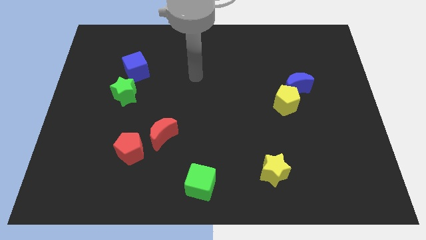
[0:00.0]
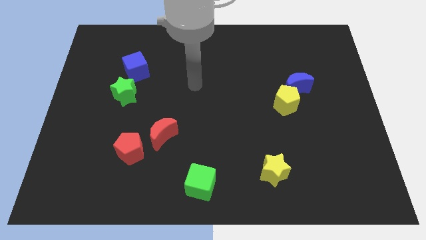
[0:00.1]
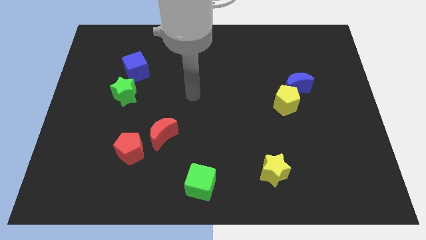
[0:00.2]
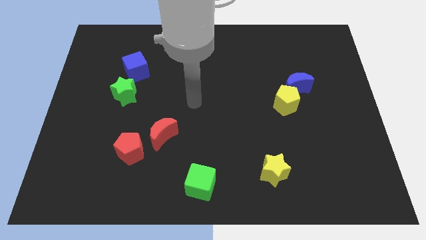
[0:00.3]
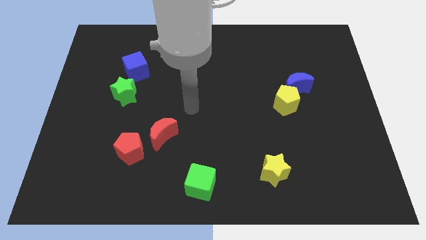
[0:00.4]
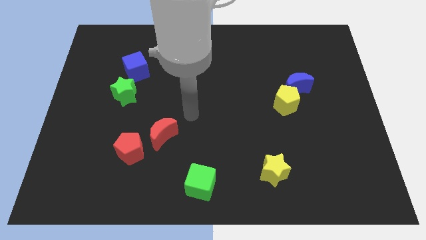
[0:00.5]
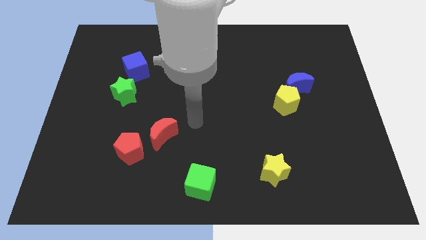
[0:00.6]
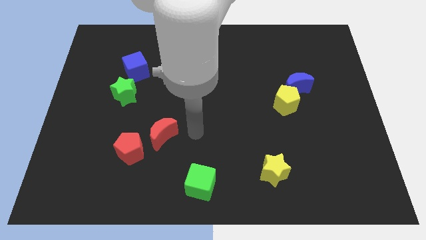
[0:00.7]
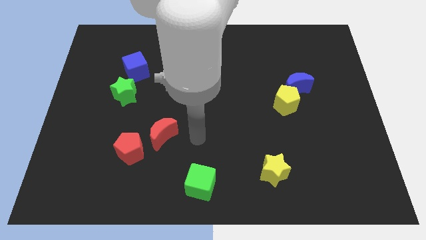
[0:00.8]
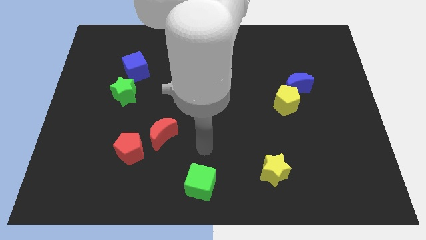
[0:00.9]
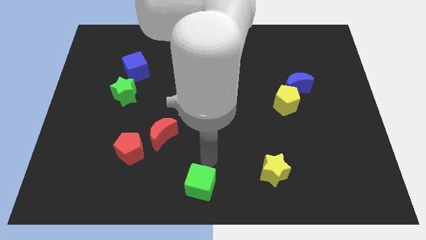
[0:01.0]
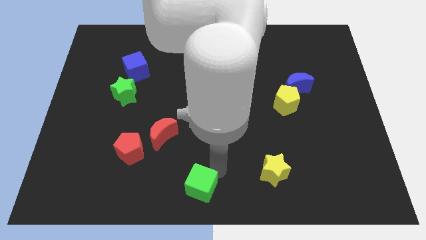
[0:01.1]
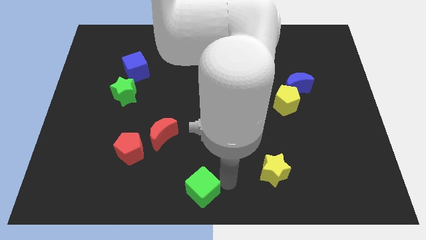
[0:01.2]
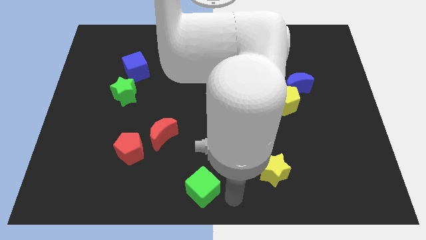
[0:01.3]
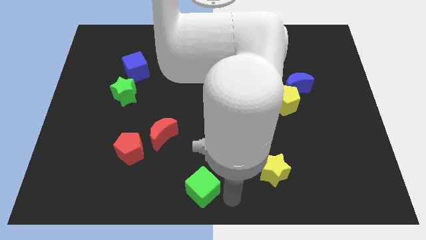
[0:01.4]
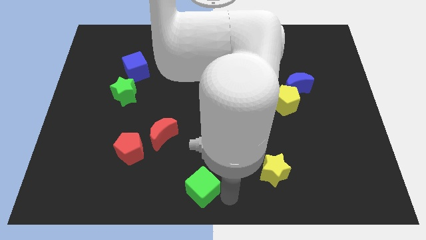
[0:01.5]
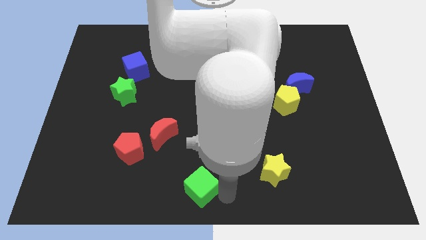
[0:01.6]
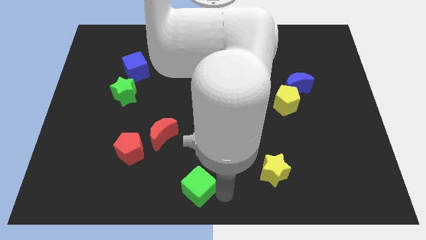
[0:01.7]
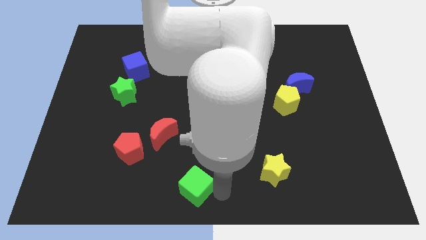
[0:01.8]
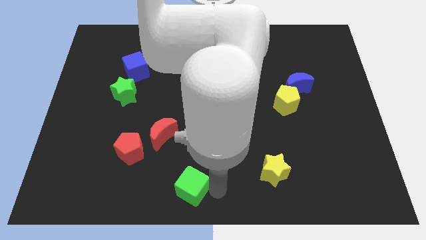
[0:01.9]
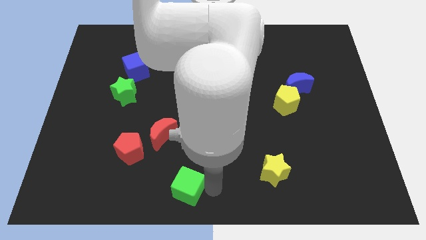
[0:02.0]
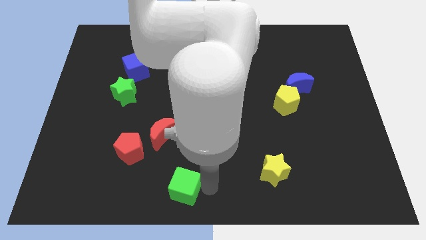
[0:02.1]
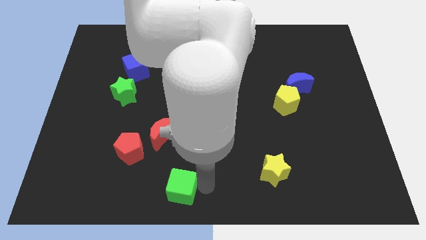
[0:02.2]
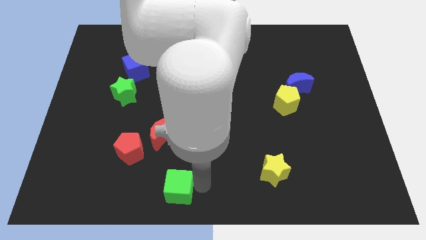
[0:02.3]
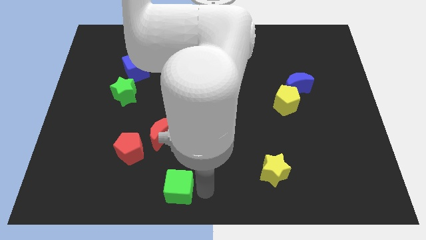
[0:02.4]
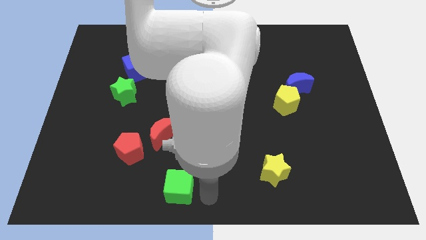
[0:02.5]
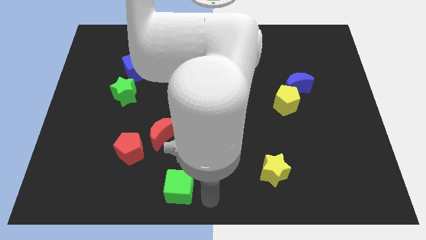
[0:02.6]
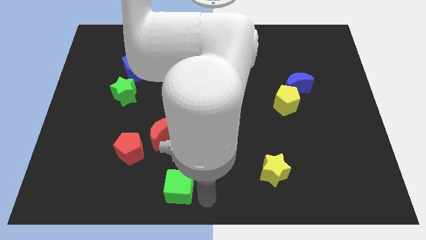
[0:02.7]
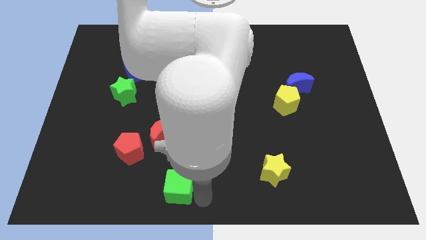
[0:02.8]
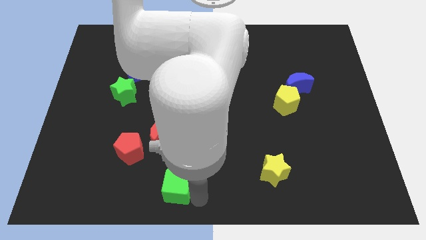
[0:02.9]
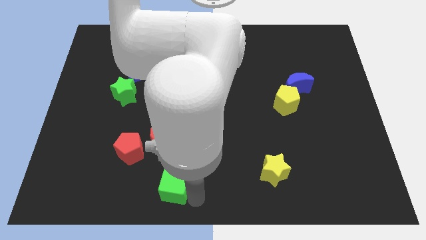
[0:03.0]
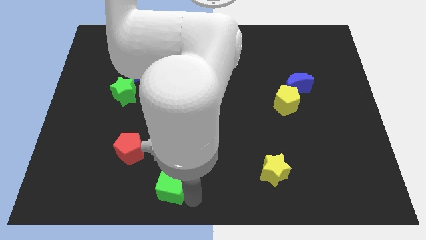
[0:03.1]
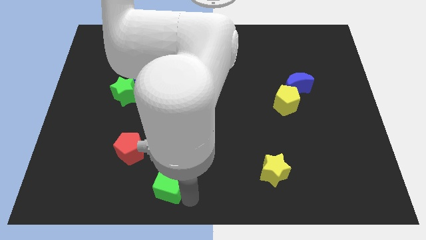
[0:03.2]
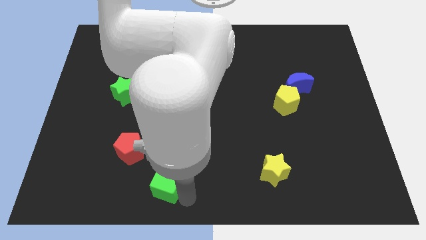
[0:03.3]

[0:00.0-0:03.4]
slide the green cube left a little

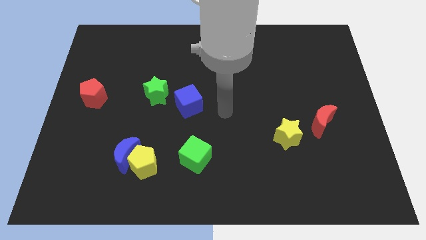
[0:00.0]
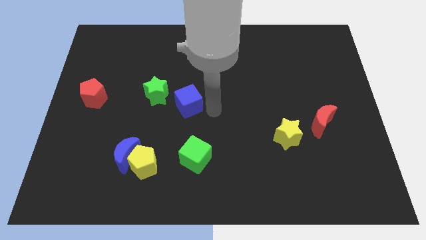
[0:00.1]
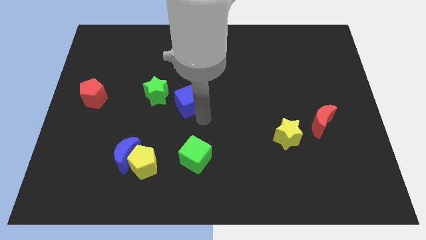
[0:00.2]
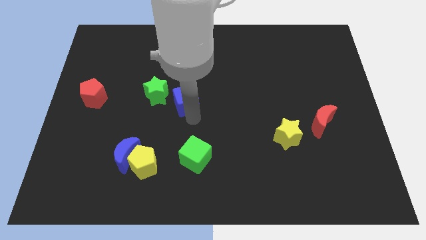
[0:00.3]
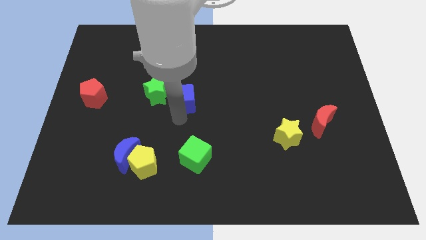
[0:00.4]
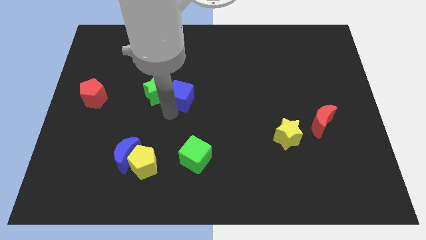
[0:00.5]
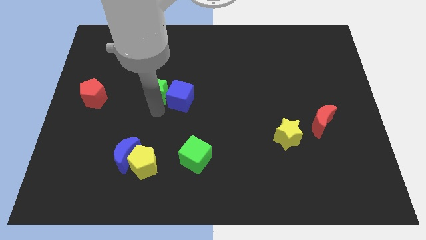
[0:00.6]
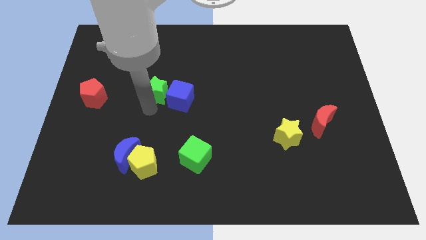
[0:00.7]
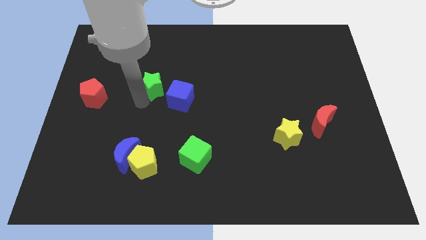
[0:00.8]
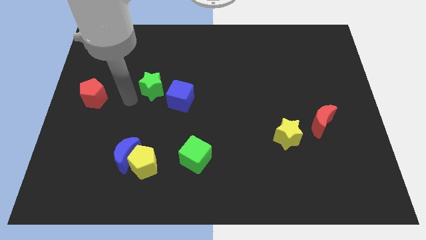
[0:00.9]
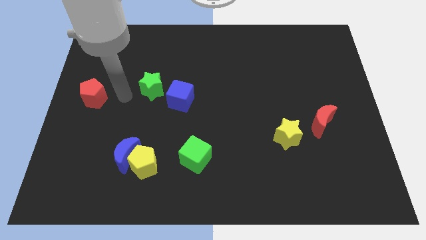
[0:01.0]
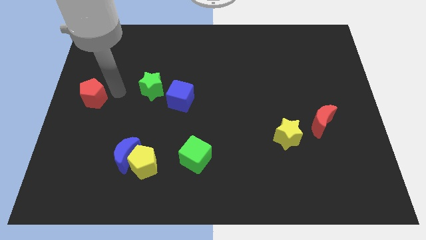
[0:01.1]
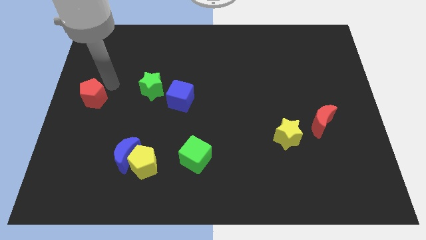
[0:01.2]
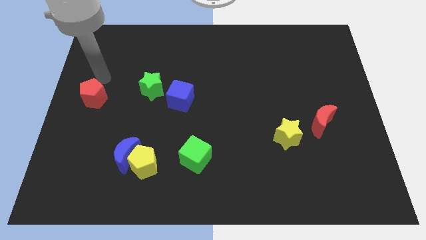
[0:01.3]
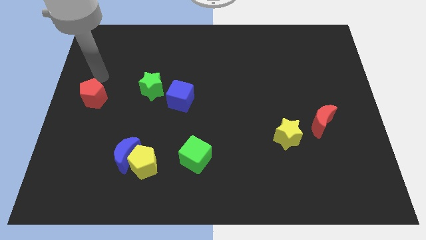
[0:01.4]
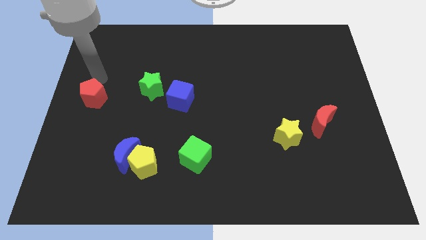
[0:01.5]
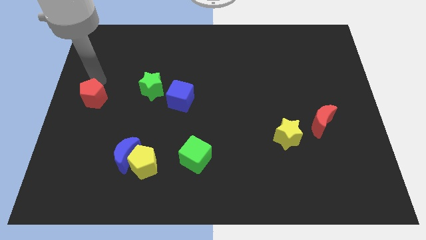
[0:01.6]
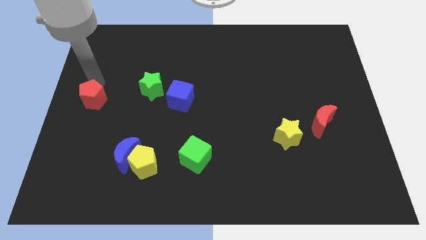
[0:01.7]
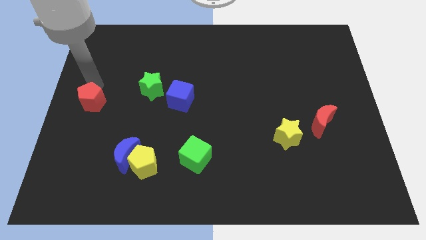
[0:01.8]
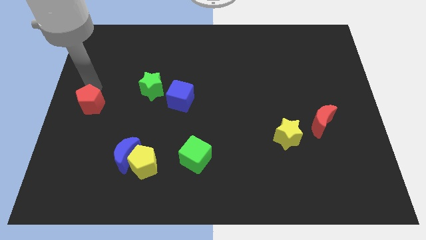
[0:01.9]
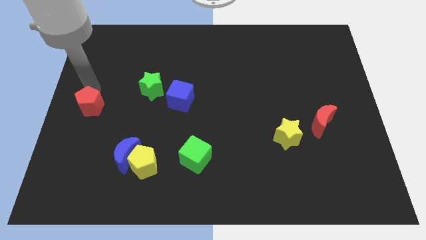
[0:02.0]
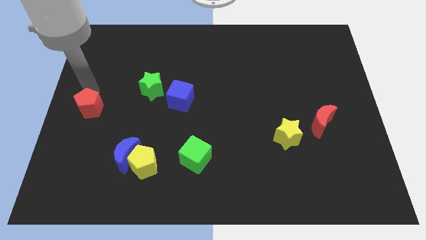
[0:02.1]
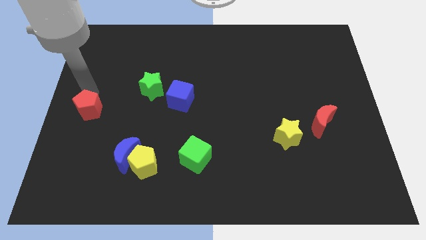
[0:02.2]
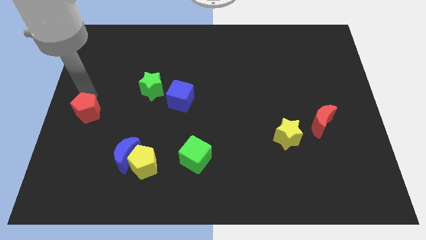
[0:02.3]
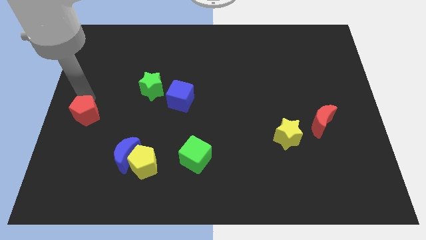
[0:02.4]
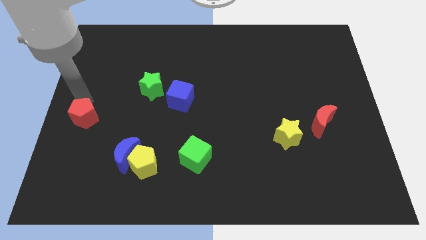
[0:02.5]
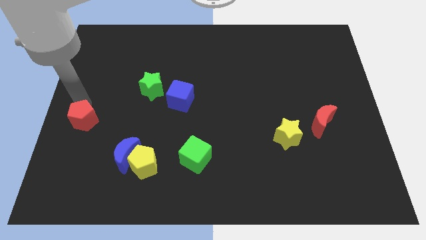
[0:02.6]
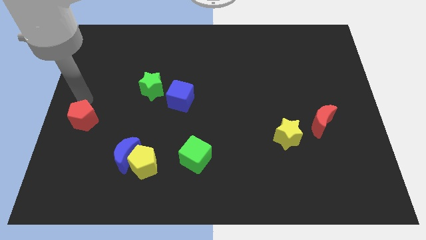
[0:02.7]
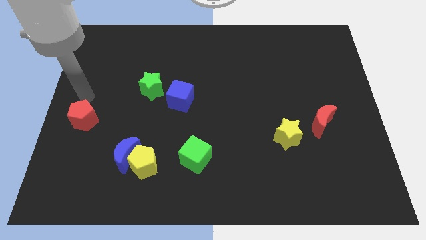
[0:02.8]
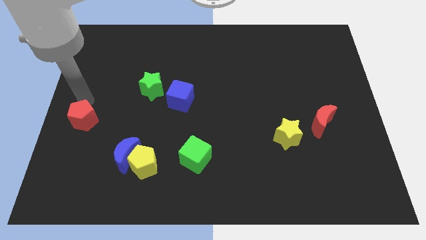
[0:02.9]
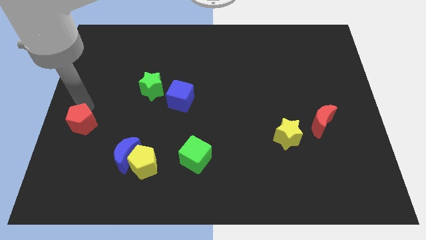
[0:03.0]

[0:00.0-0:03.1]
push the red pentagon down a bit

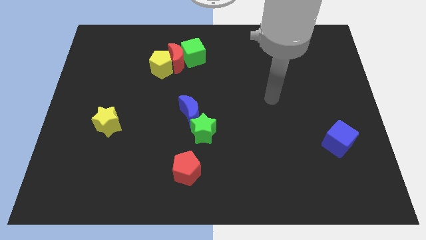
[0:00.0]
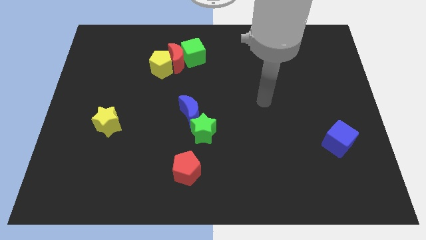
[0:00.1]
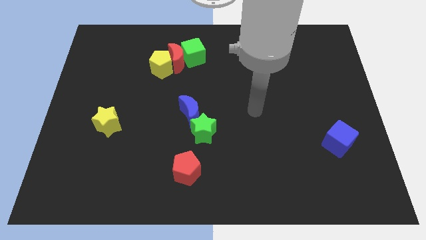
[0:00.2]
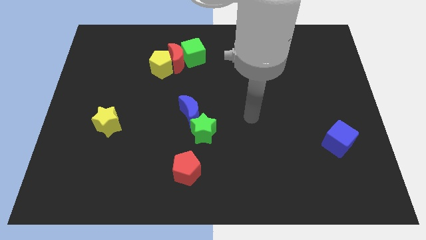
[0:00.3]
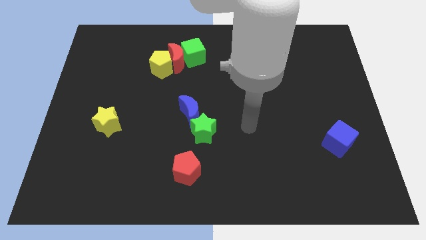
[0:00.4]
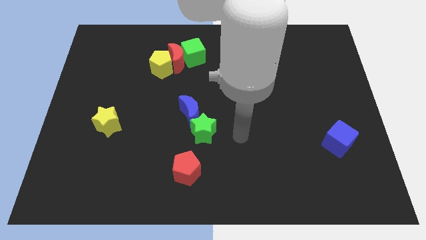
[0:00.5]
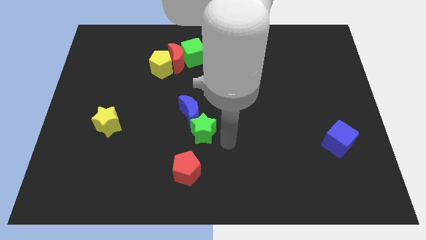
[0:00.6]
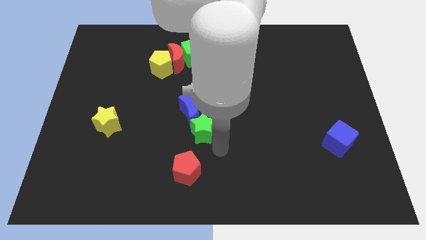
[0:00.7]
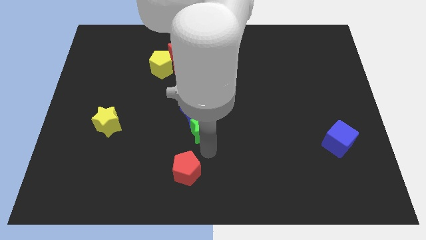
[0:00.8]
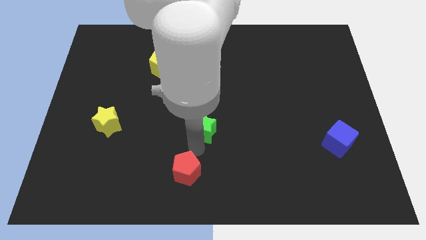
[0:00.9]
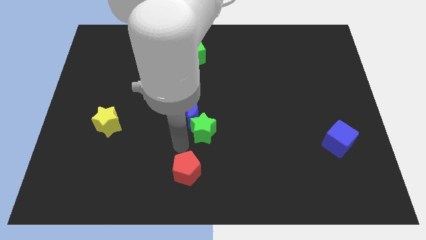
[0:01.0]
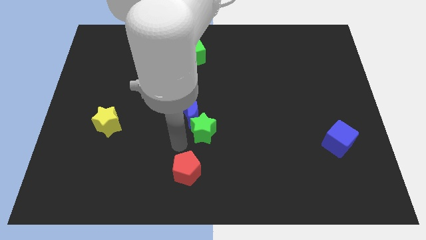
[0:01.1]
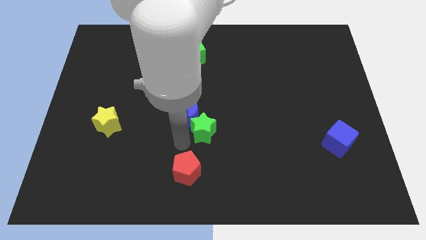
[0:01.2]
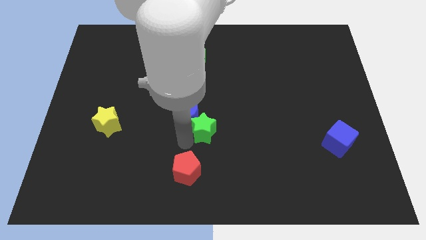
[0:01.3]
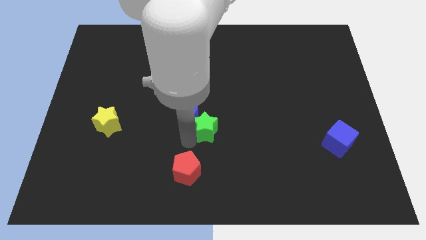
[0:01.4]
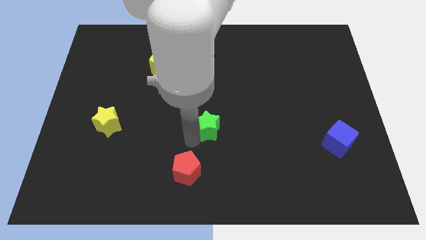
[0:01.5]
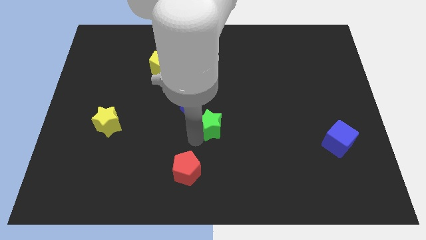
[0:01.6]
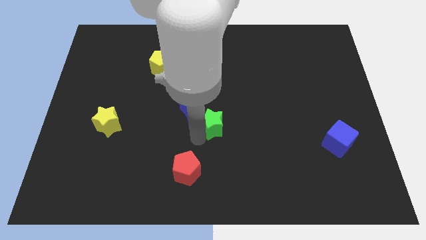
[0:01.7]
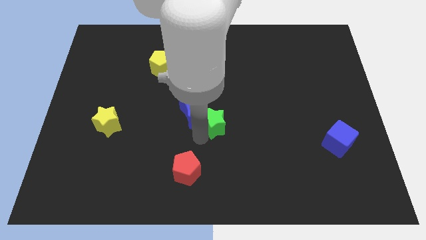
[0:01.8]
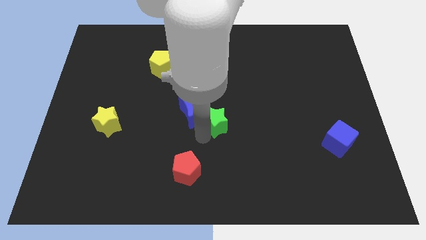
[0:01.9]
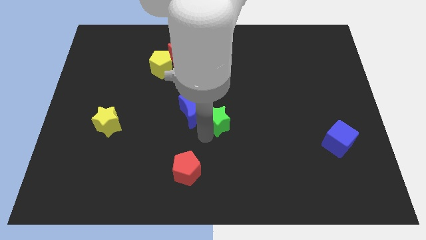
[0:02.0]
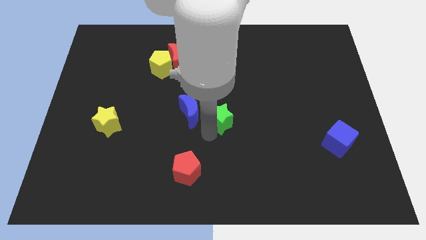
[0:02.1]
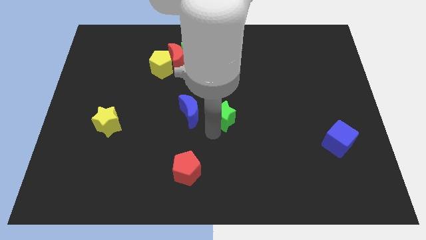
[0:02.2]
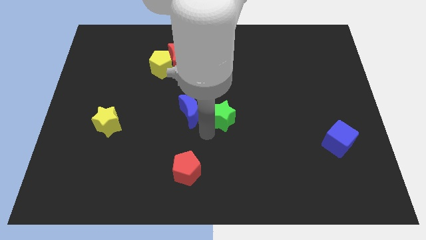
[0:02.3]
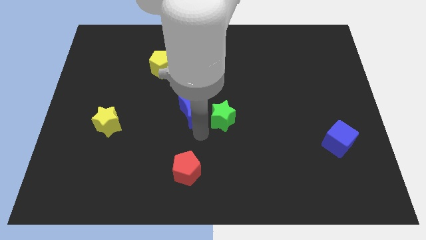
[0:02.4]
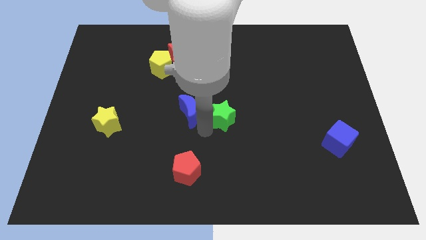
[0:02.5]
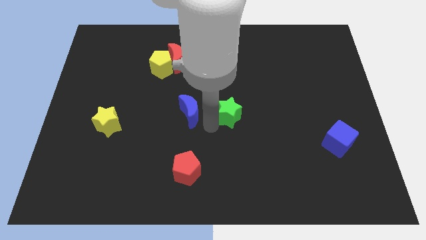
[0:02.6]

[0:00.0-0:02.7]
slide the green star a bit up and to the right
